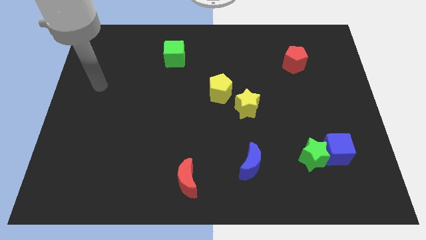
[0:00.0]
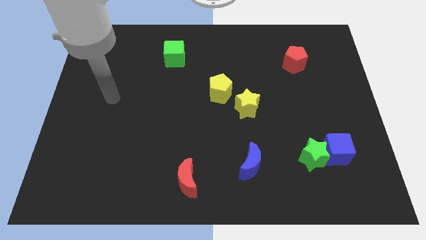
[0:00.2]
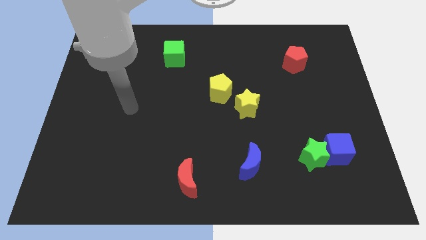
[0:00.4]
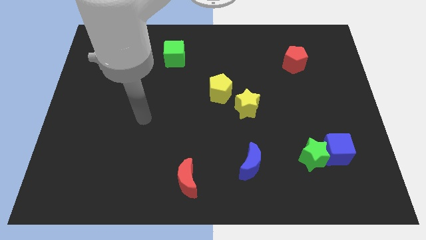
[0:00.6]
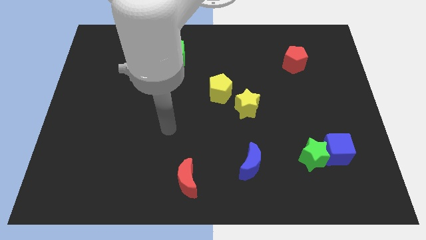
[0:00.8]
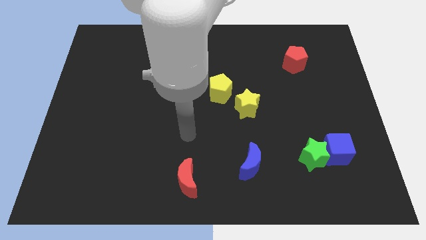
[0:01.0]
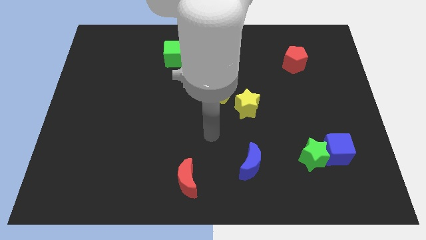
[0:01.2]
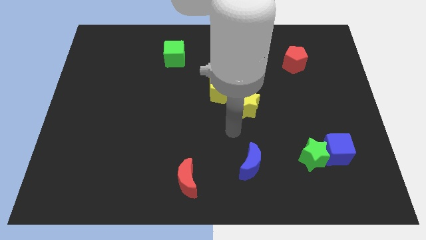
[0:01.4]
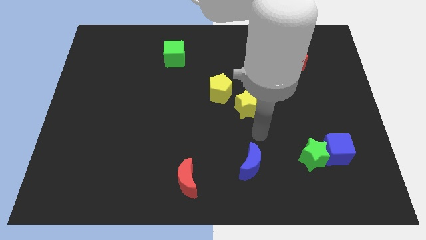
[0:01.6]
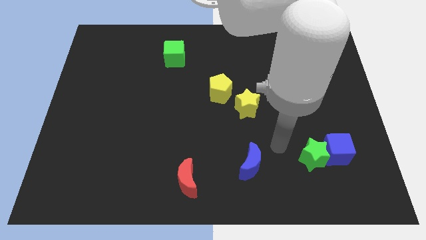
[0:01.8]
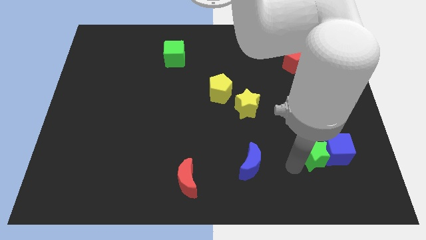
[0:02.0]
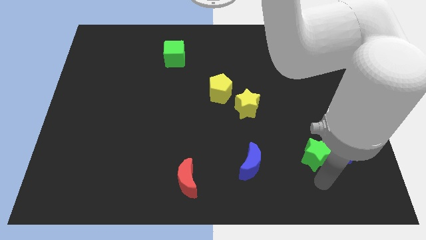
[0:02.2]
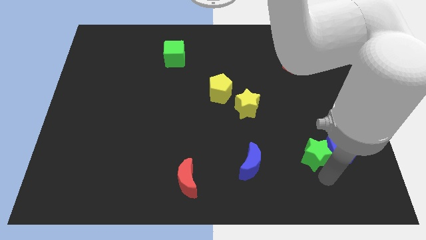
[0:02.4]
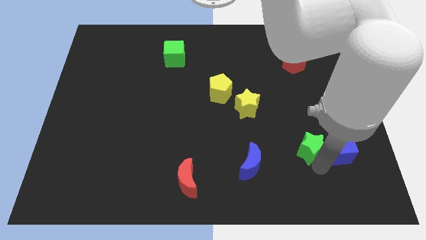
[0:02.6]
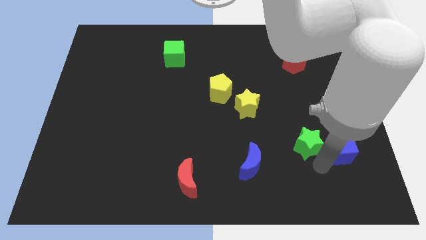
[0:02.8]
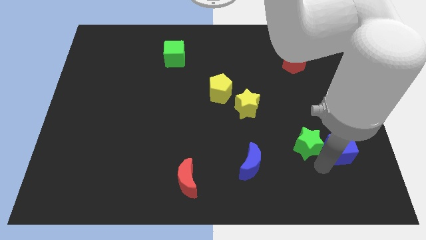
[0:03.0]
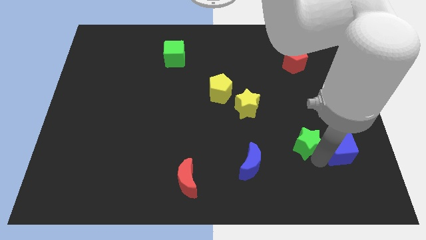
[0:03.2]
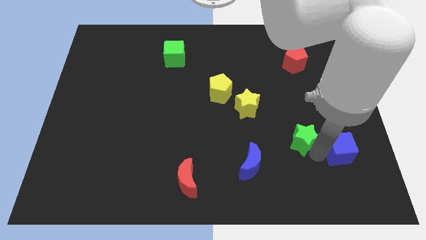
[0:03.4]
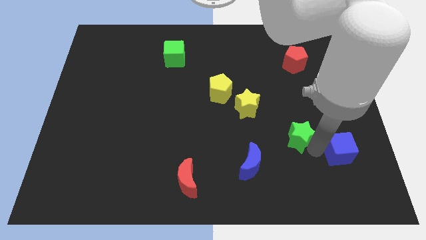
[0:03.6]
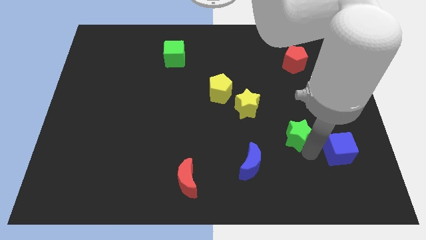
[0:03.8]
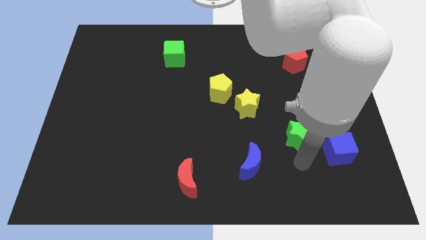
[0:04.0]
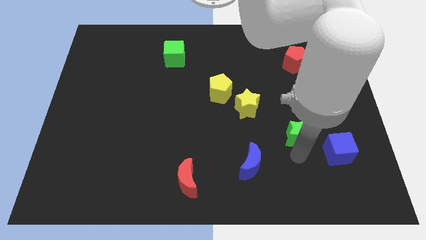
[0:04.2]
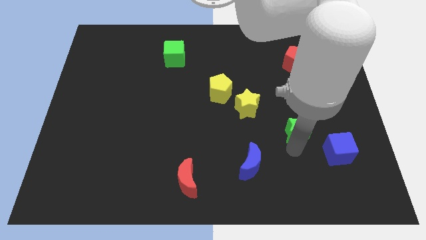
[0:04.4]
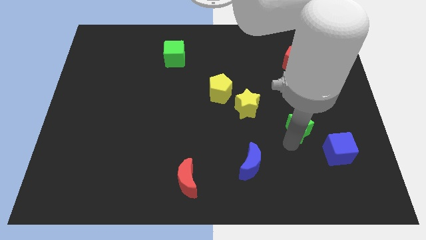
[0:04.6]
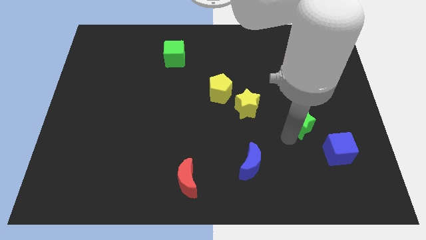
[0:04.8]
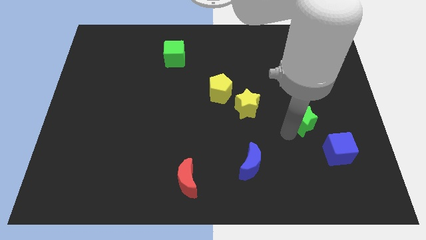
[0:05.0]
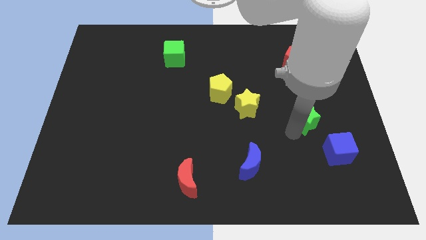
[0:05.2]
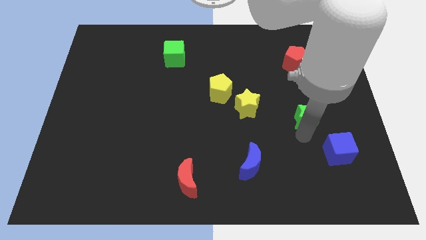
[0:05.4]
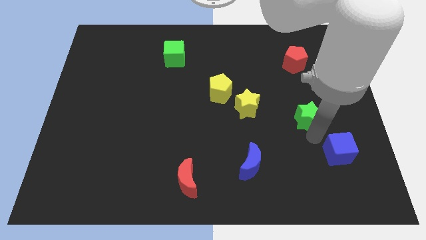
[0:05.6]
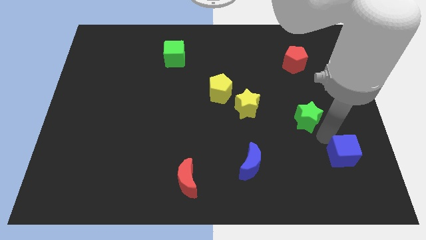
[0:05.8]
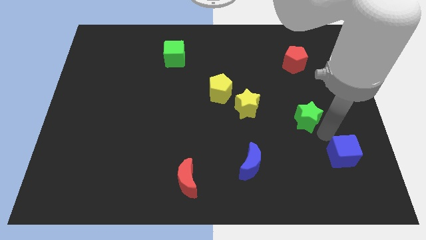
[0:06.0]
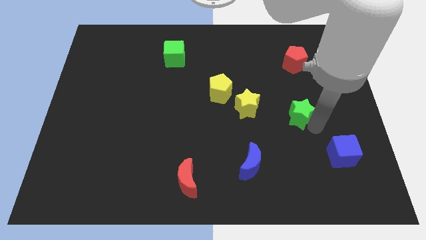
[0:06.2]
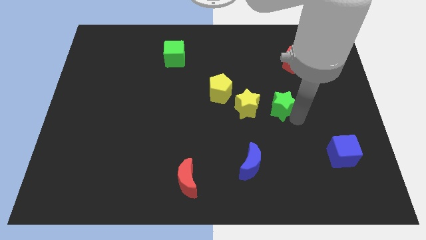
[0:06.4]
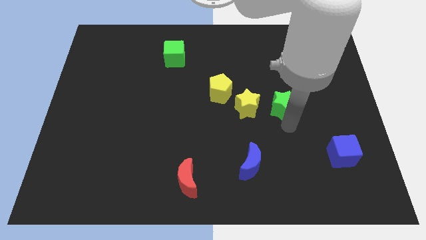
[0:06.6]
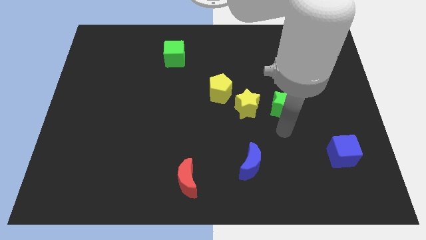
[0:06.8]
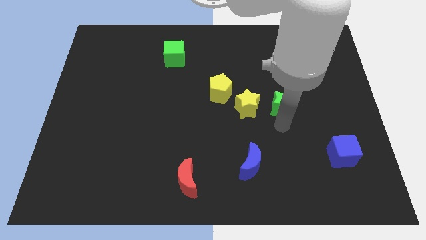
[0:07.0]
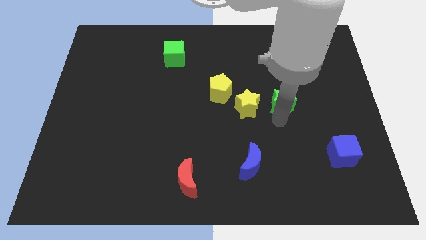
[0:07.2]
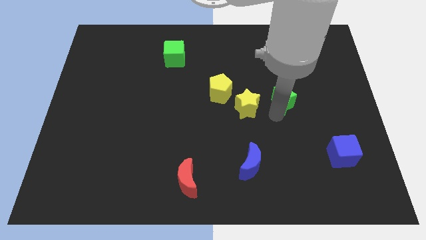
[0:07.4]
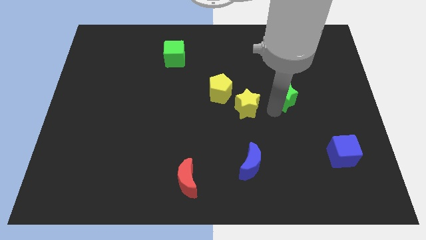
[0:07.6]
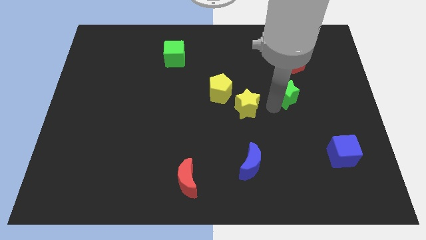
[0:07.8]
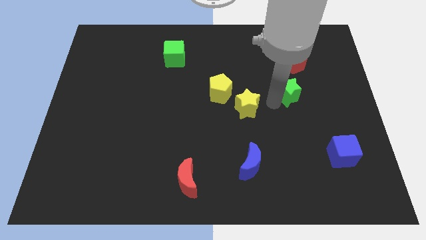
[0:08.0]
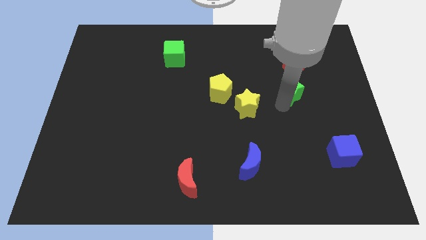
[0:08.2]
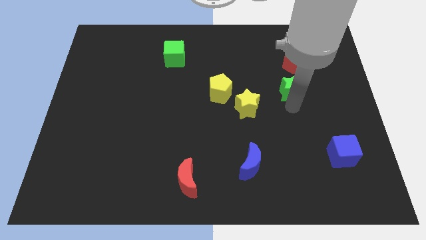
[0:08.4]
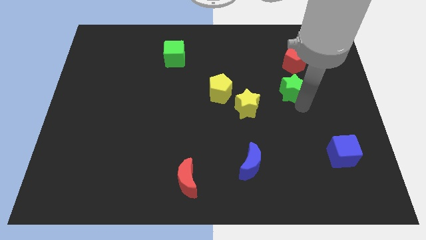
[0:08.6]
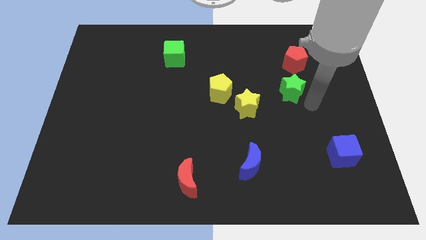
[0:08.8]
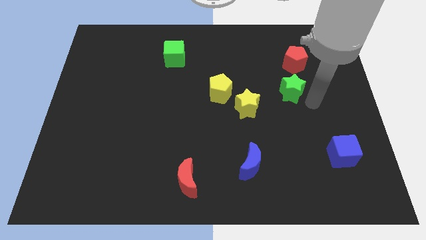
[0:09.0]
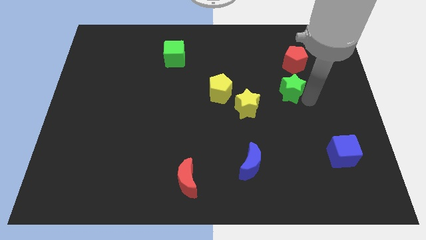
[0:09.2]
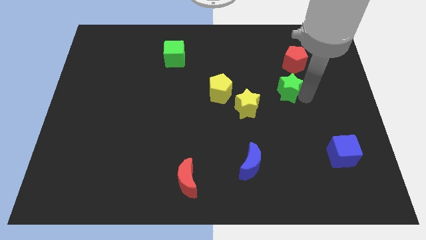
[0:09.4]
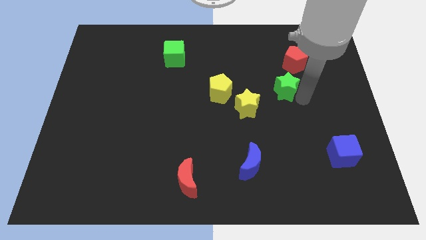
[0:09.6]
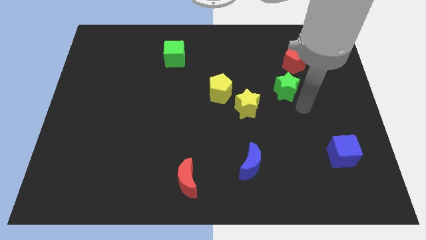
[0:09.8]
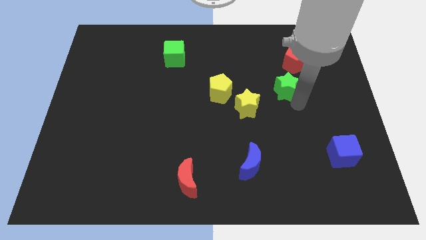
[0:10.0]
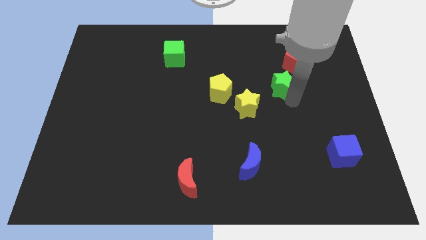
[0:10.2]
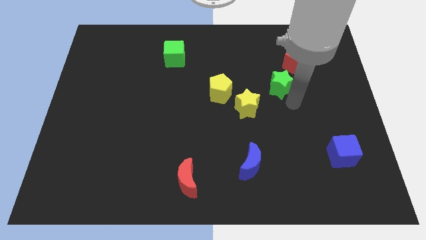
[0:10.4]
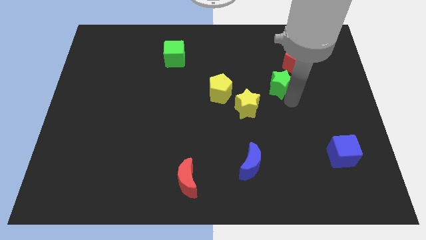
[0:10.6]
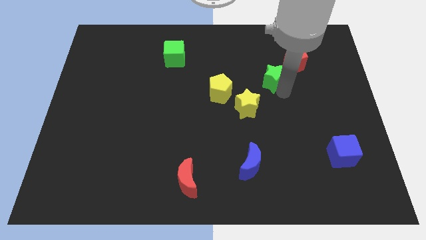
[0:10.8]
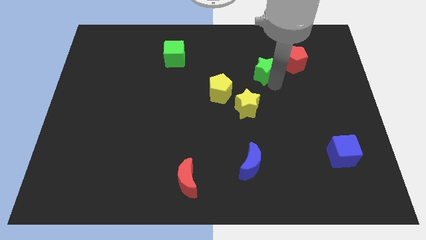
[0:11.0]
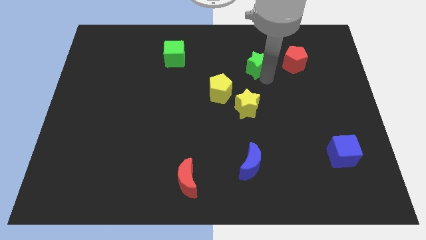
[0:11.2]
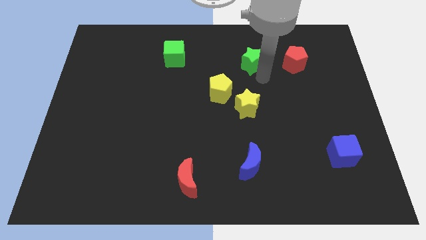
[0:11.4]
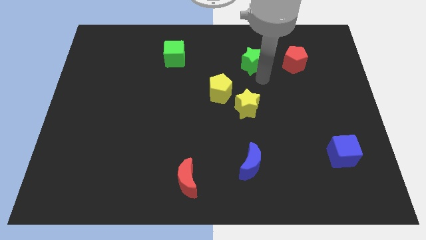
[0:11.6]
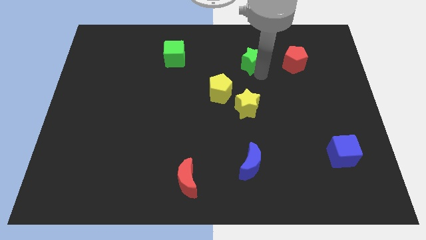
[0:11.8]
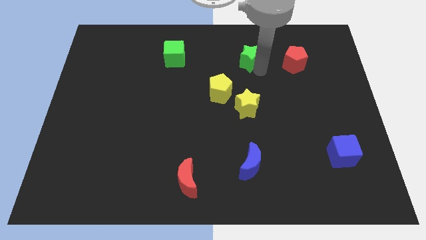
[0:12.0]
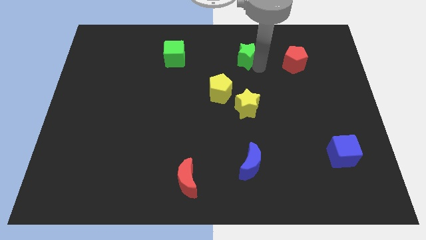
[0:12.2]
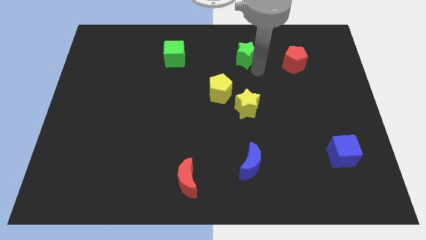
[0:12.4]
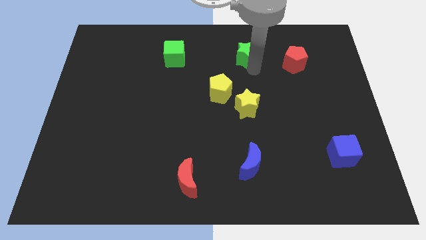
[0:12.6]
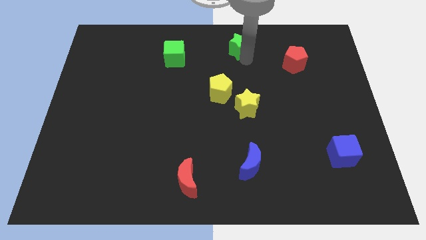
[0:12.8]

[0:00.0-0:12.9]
push the green star to the top
